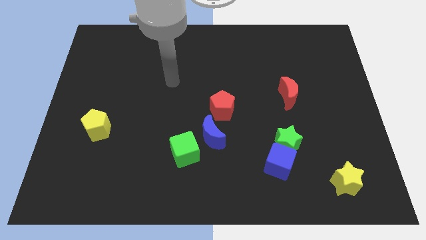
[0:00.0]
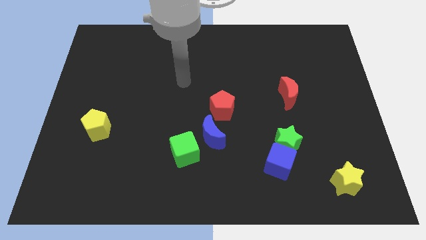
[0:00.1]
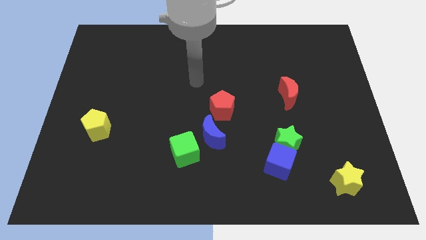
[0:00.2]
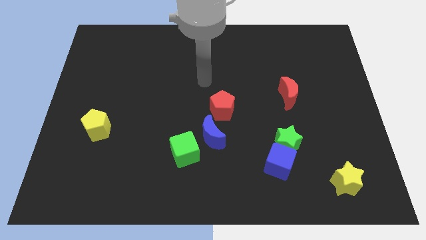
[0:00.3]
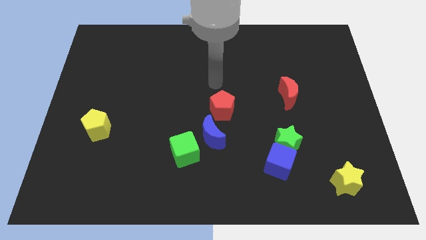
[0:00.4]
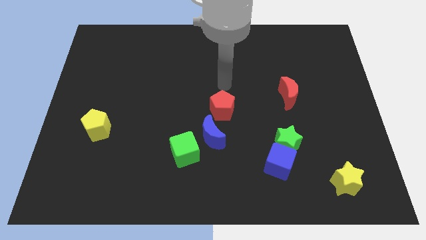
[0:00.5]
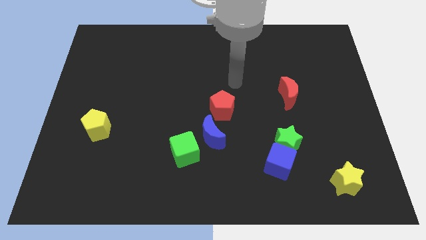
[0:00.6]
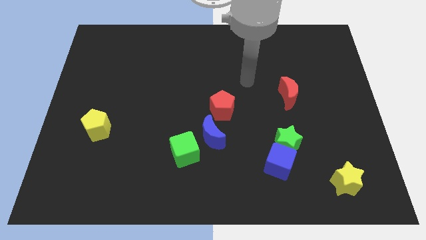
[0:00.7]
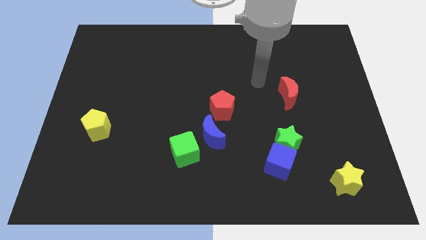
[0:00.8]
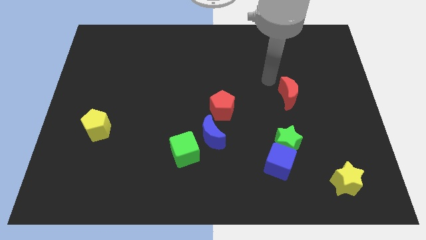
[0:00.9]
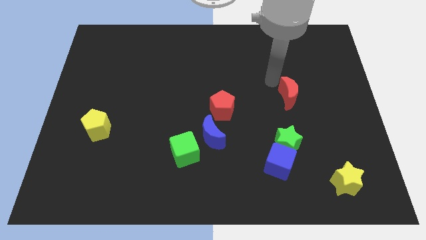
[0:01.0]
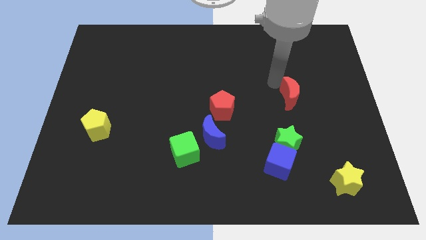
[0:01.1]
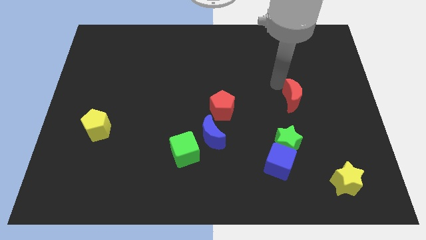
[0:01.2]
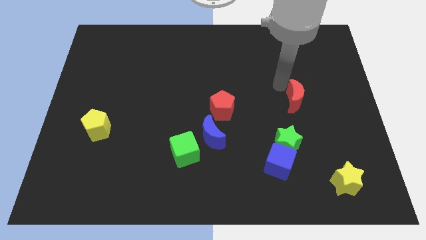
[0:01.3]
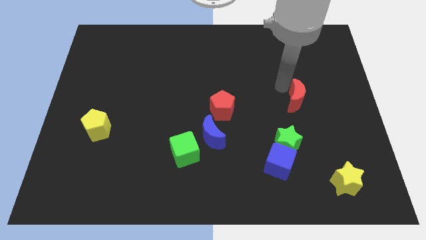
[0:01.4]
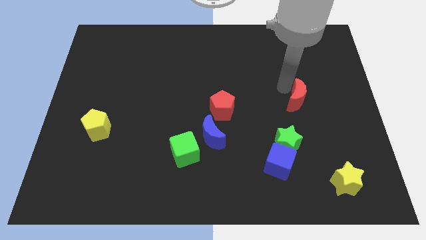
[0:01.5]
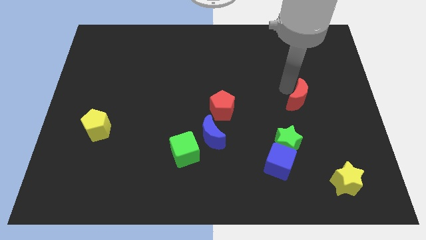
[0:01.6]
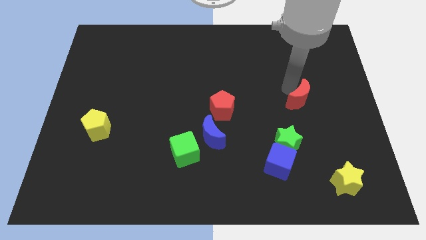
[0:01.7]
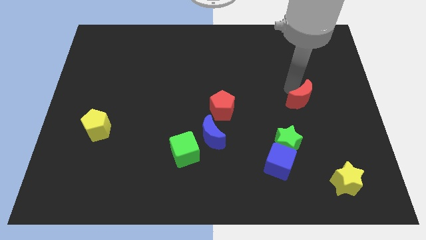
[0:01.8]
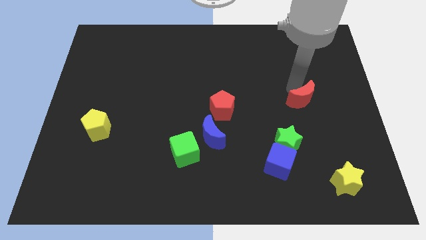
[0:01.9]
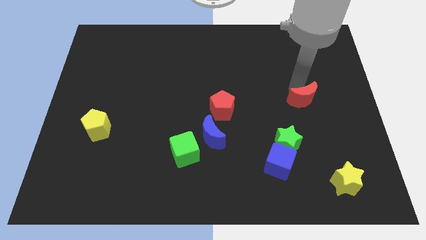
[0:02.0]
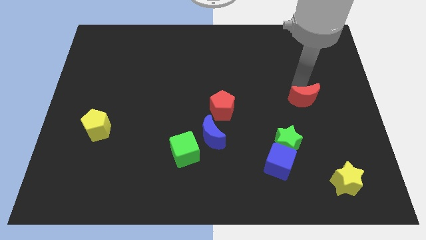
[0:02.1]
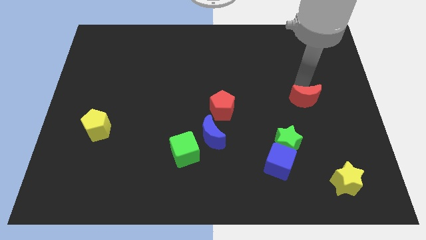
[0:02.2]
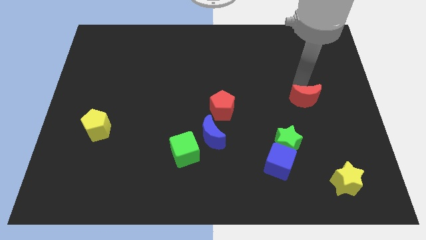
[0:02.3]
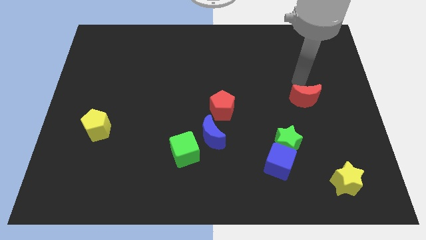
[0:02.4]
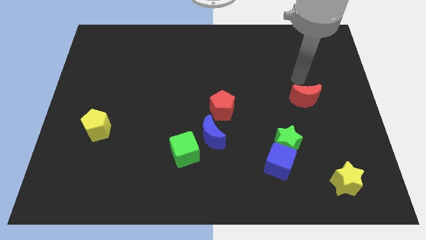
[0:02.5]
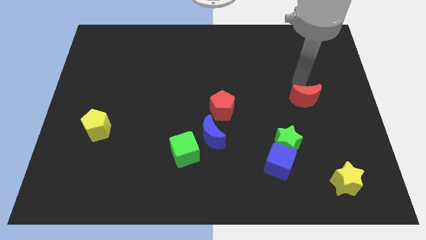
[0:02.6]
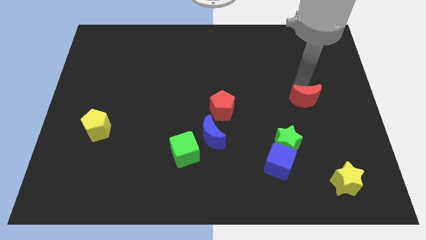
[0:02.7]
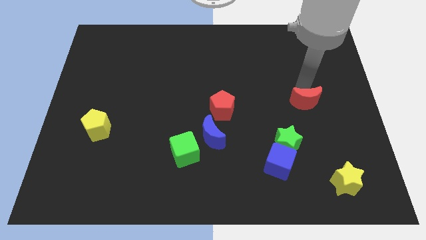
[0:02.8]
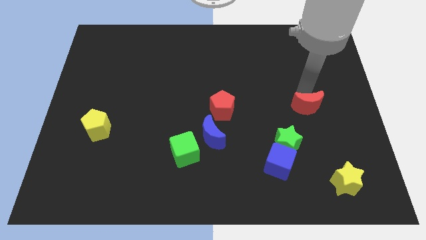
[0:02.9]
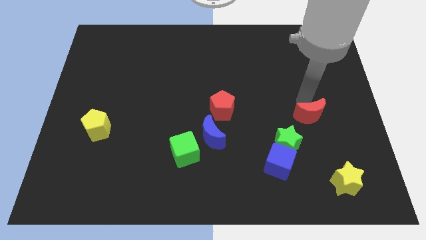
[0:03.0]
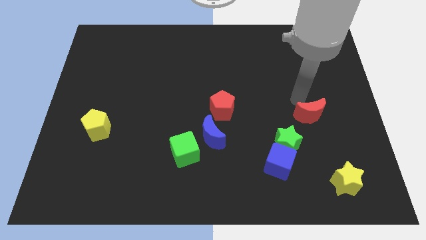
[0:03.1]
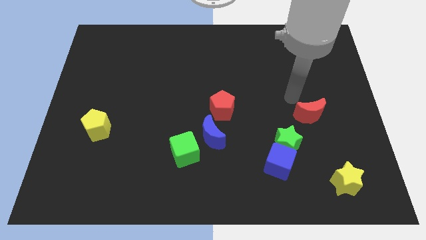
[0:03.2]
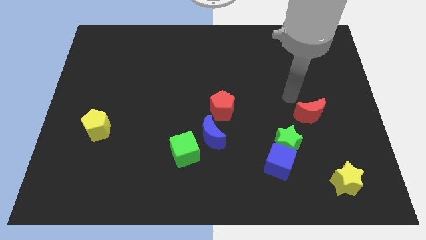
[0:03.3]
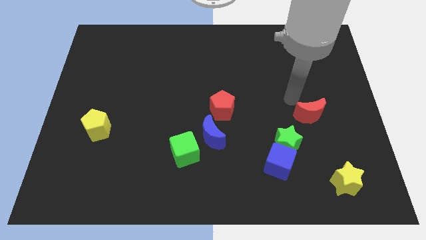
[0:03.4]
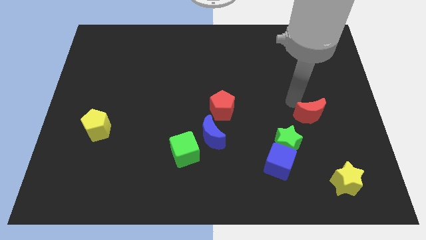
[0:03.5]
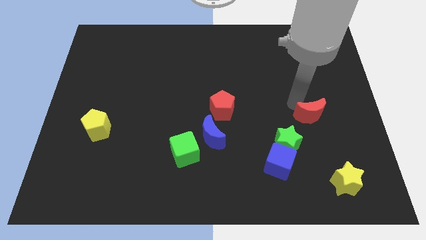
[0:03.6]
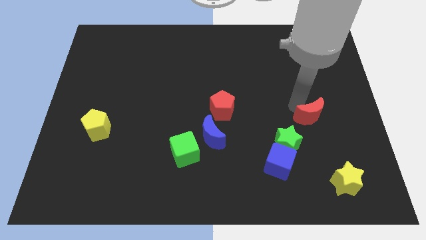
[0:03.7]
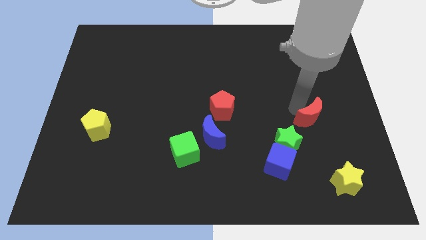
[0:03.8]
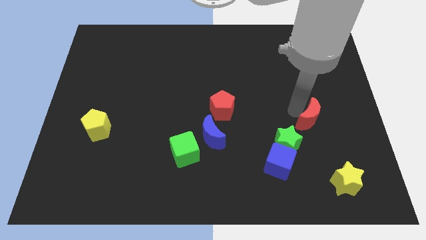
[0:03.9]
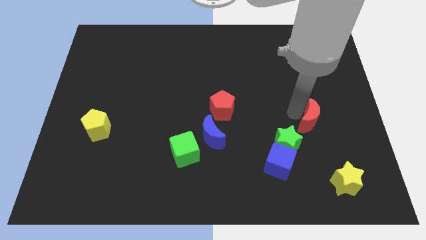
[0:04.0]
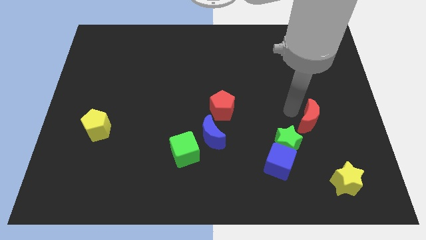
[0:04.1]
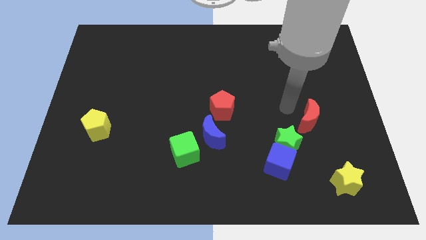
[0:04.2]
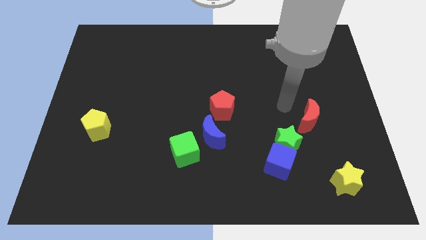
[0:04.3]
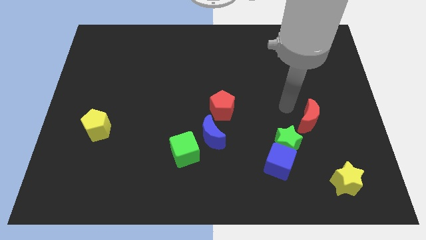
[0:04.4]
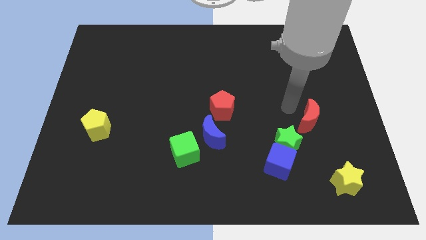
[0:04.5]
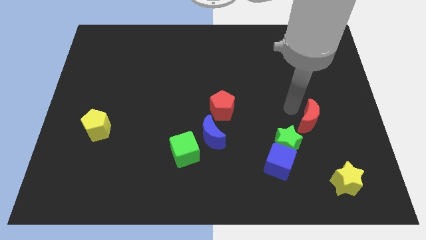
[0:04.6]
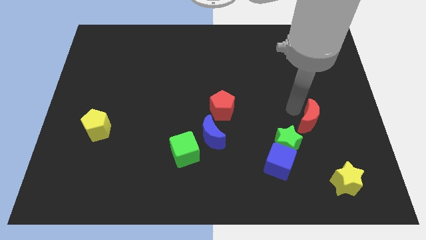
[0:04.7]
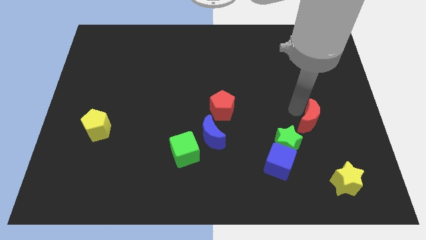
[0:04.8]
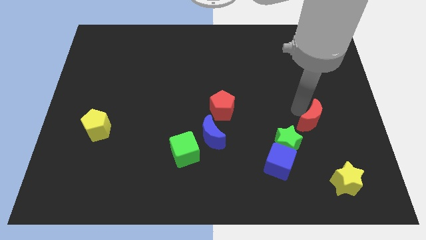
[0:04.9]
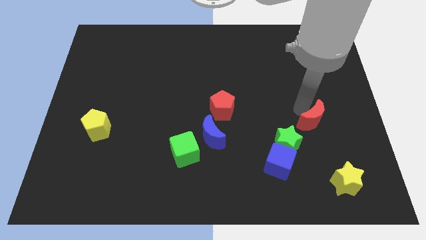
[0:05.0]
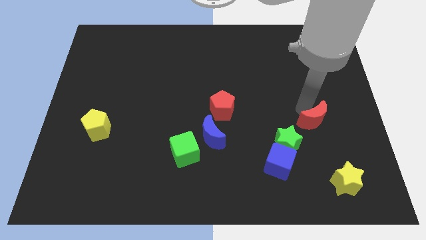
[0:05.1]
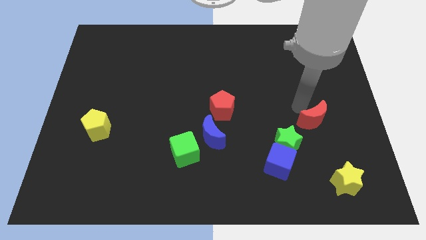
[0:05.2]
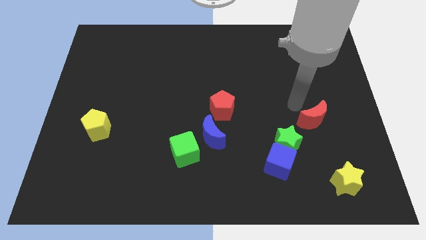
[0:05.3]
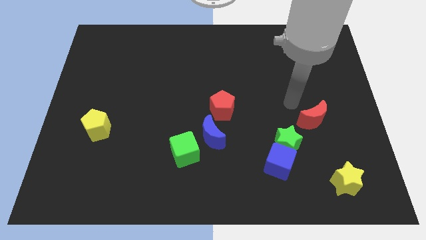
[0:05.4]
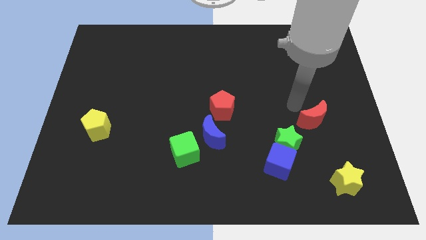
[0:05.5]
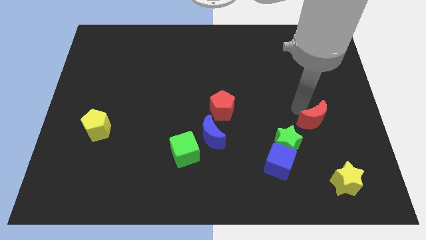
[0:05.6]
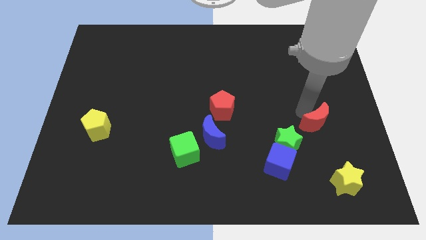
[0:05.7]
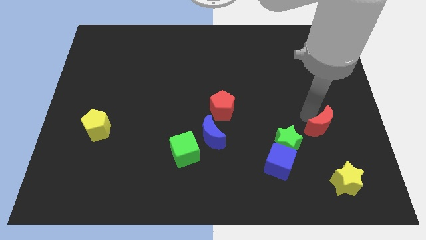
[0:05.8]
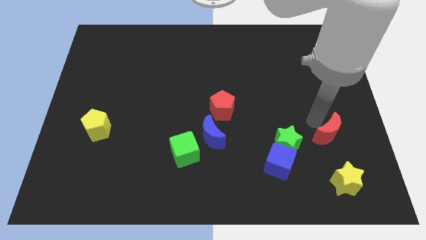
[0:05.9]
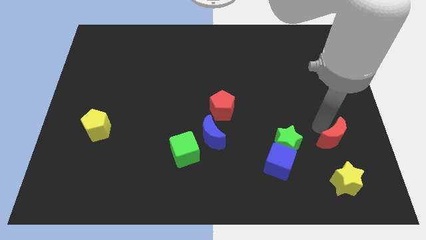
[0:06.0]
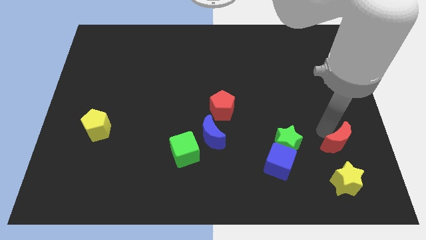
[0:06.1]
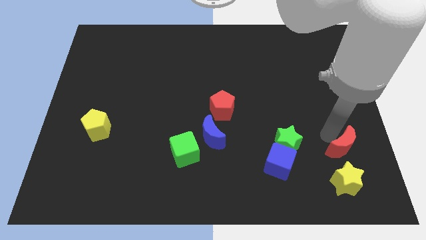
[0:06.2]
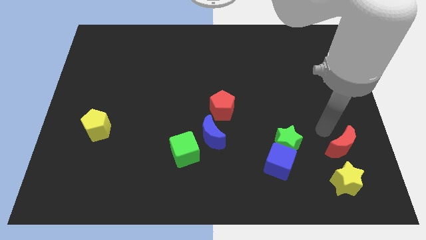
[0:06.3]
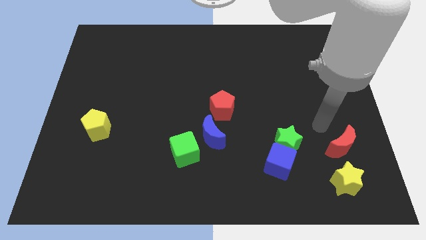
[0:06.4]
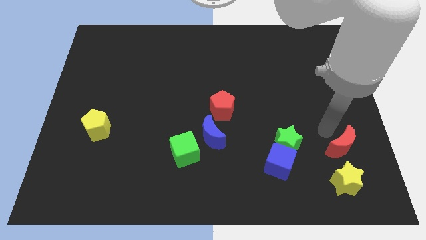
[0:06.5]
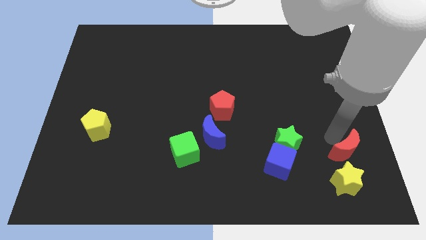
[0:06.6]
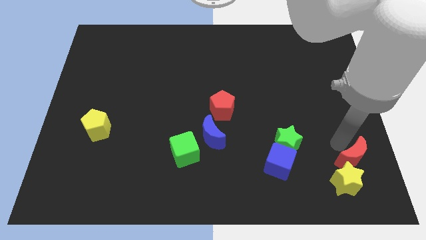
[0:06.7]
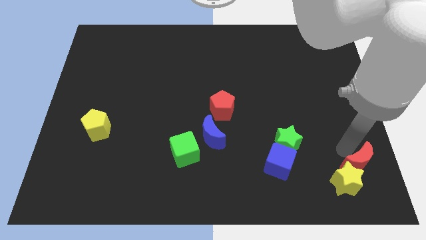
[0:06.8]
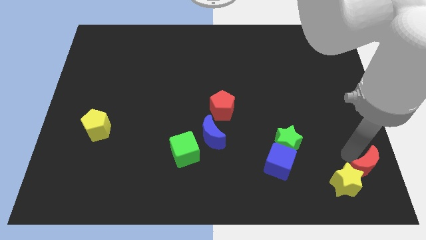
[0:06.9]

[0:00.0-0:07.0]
put the red moon to the bottom right corner
